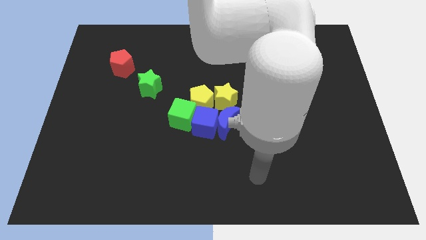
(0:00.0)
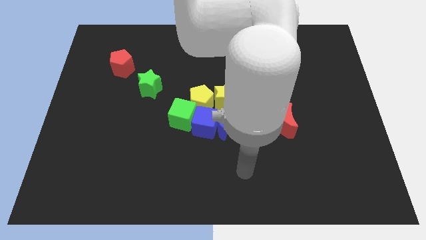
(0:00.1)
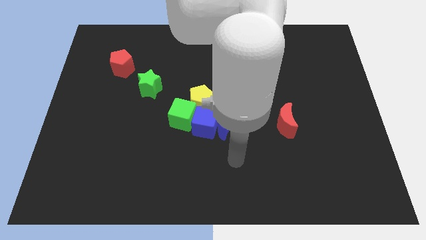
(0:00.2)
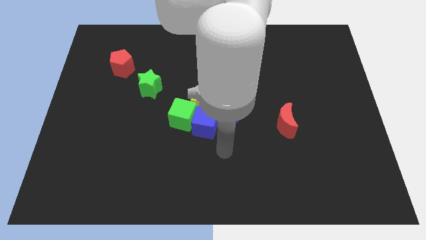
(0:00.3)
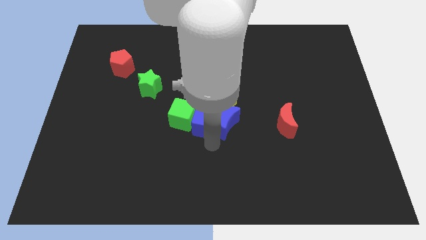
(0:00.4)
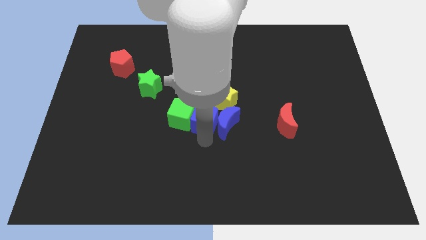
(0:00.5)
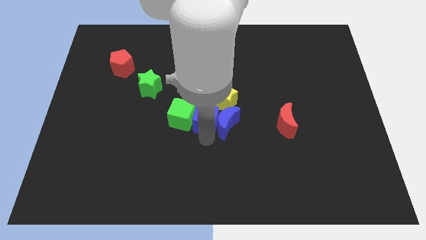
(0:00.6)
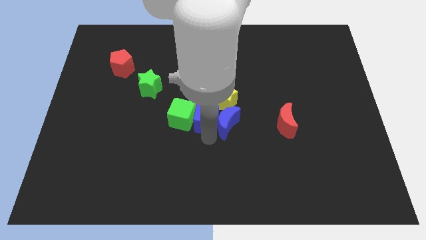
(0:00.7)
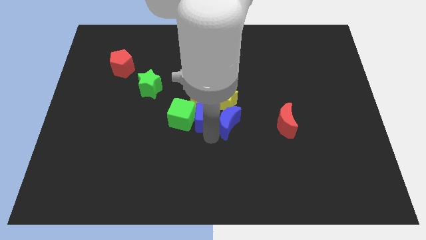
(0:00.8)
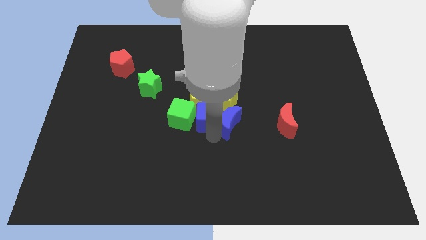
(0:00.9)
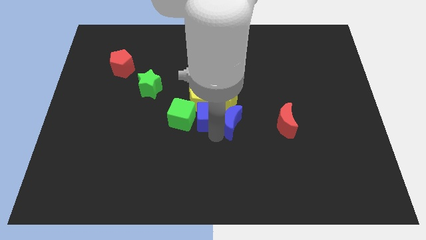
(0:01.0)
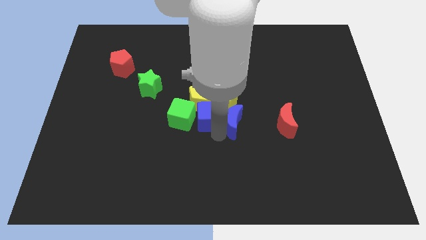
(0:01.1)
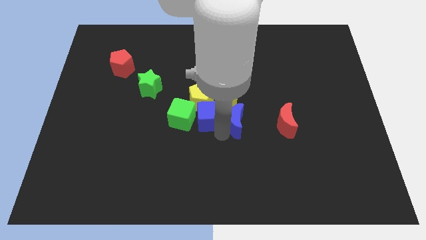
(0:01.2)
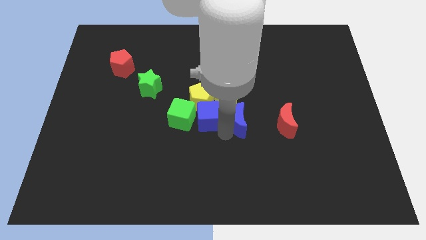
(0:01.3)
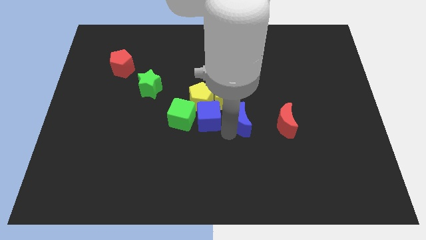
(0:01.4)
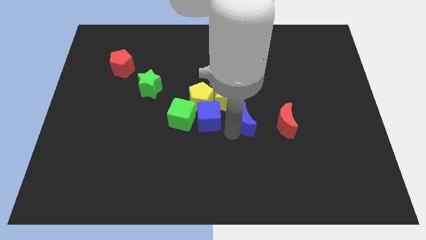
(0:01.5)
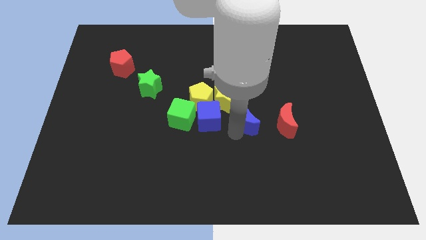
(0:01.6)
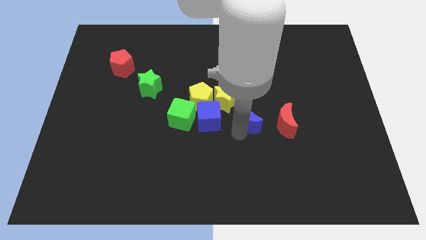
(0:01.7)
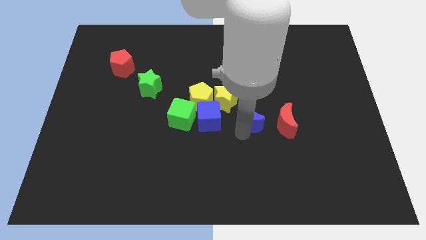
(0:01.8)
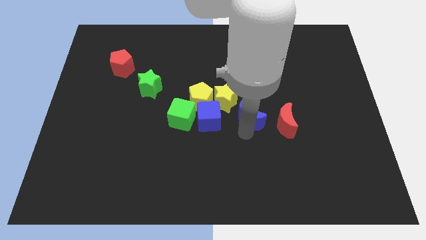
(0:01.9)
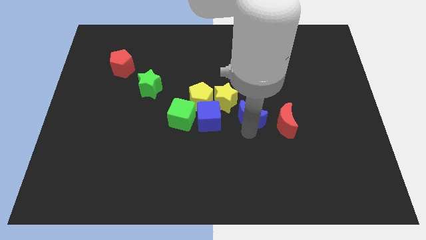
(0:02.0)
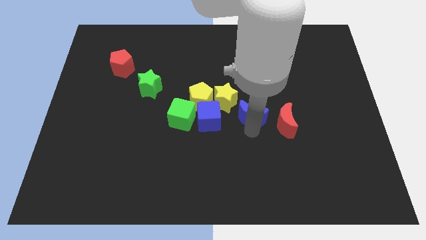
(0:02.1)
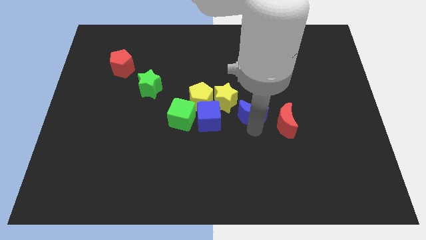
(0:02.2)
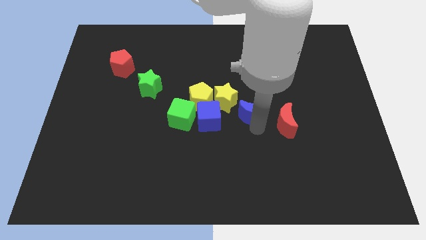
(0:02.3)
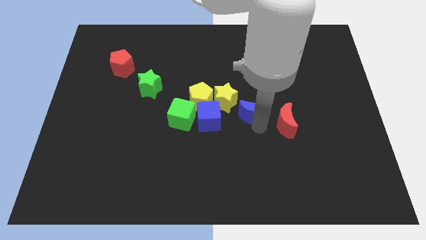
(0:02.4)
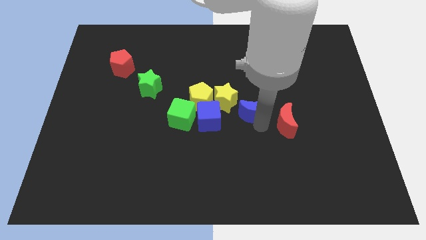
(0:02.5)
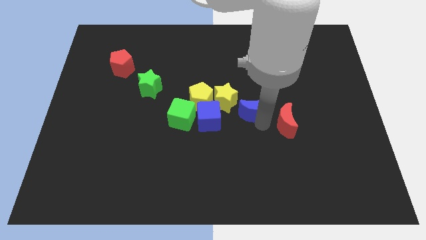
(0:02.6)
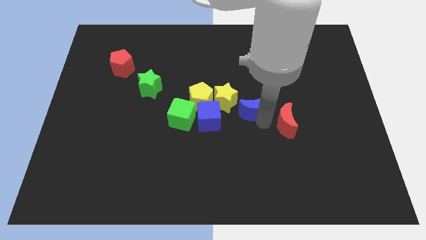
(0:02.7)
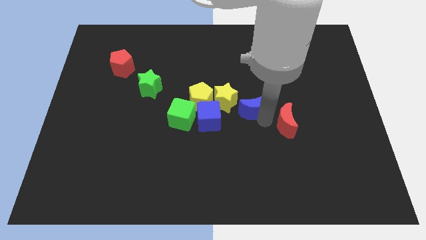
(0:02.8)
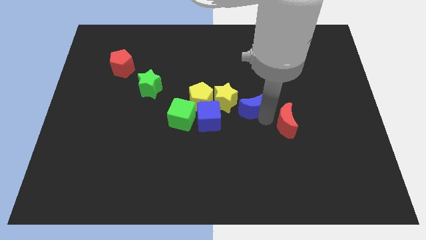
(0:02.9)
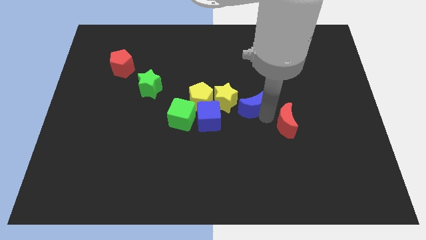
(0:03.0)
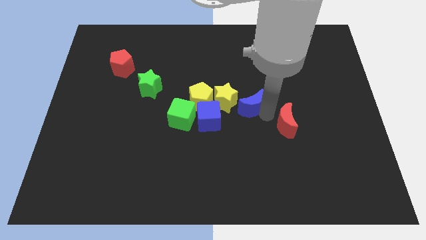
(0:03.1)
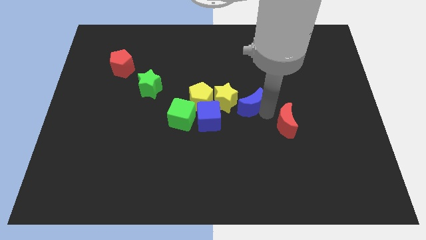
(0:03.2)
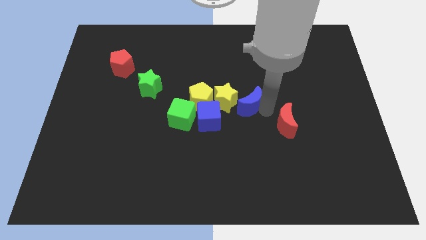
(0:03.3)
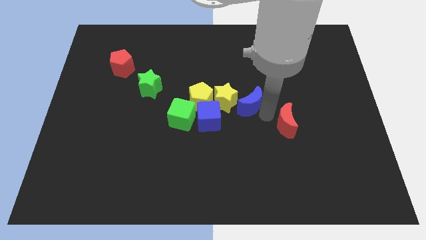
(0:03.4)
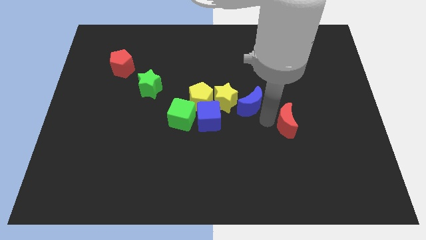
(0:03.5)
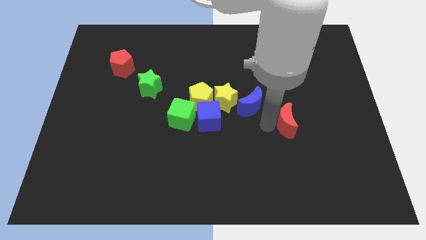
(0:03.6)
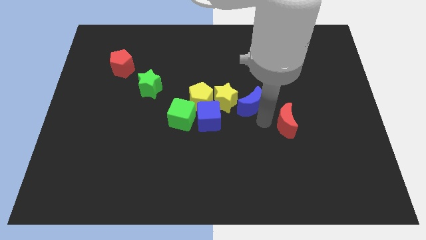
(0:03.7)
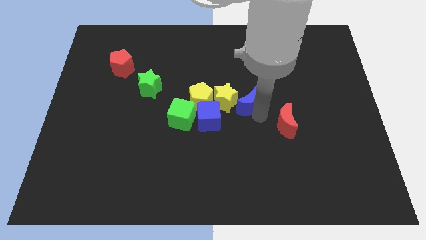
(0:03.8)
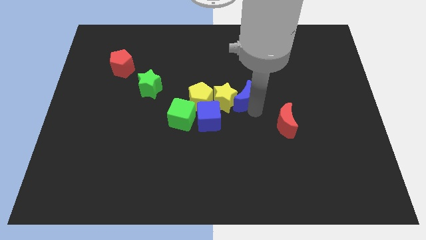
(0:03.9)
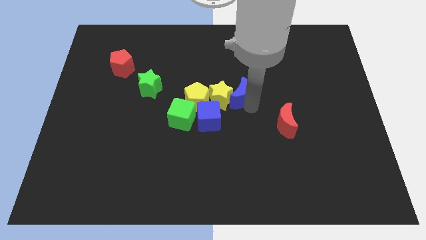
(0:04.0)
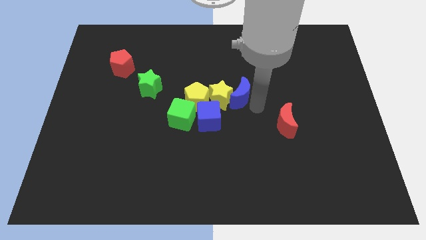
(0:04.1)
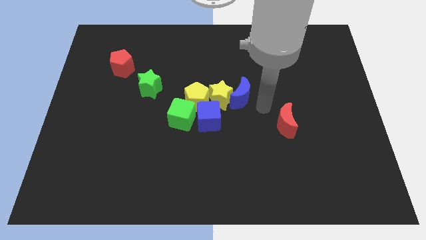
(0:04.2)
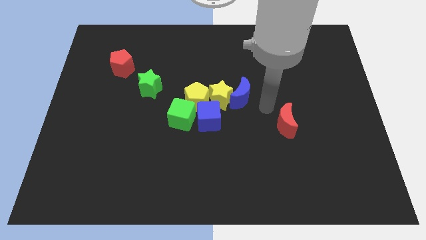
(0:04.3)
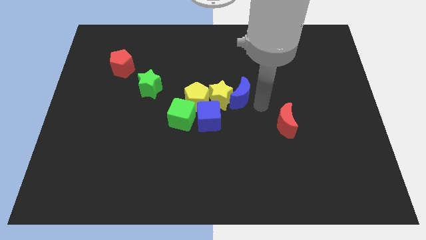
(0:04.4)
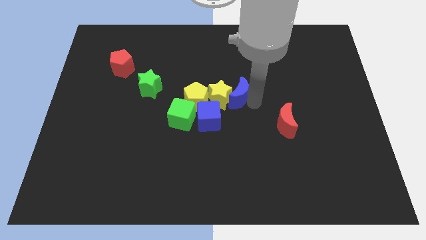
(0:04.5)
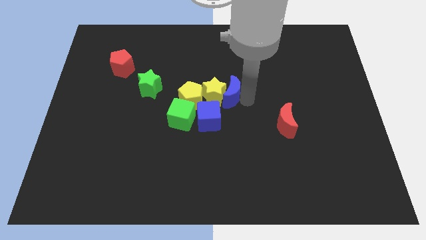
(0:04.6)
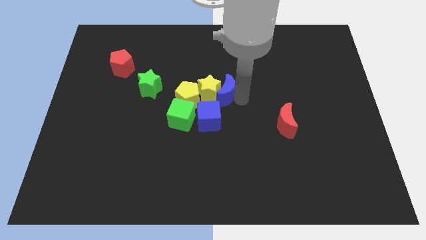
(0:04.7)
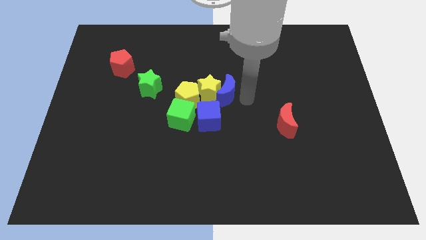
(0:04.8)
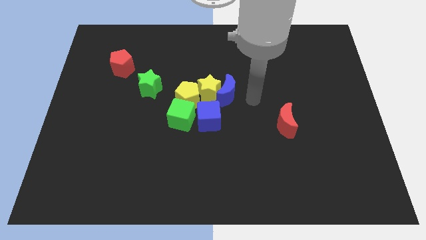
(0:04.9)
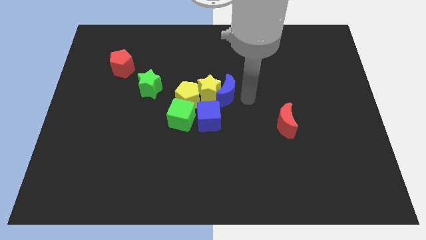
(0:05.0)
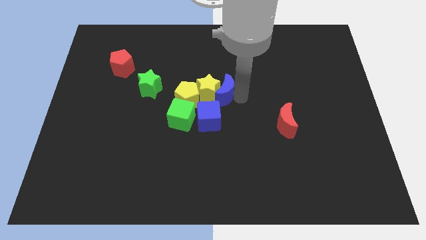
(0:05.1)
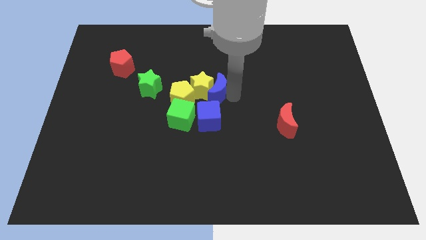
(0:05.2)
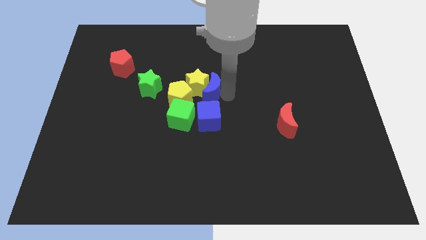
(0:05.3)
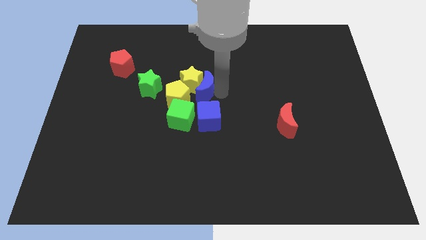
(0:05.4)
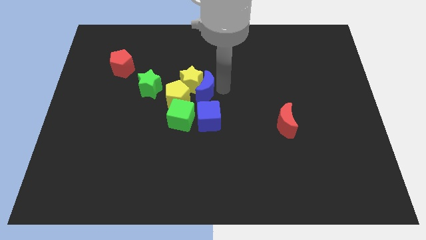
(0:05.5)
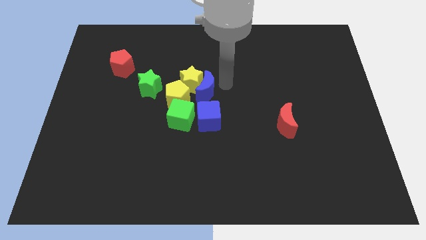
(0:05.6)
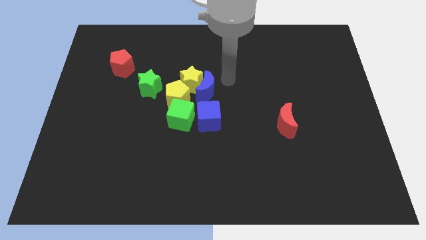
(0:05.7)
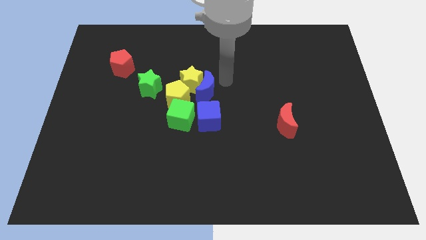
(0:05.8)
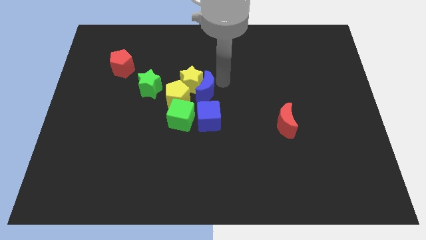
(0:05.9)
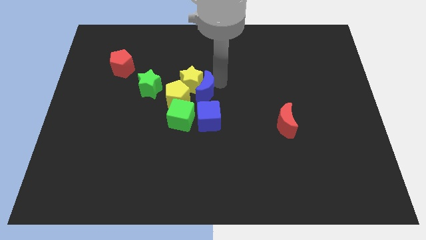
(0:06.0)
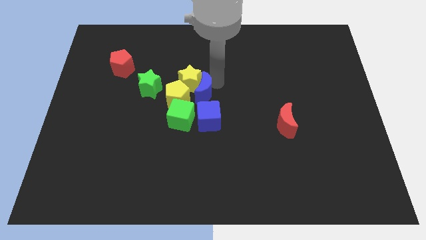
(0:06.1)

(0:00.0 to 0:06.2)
push the blue moon diagonally up and to the left of the blue cube

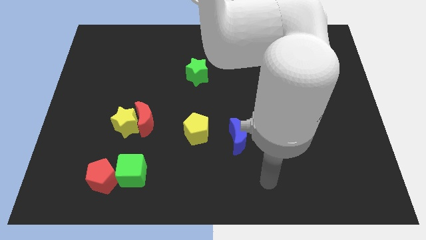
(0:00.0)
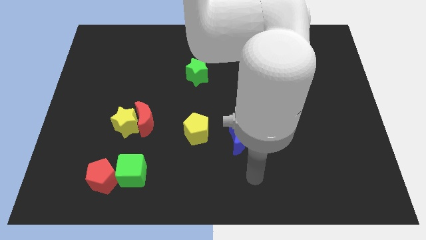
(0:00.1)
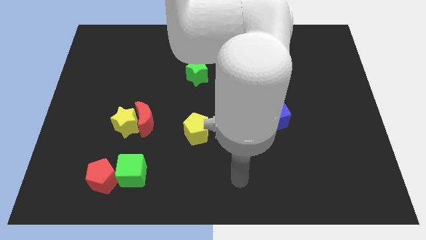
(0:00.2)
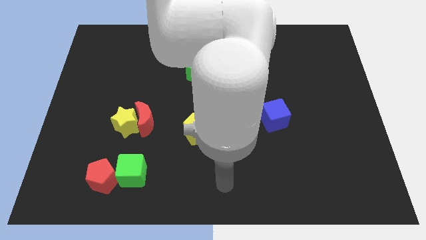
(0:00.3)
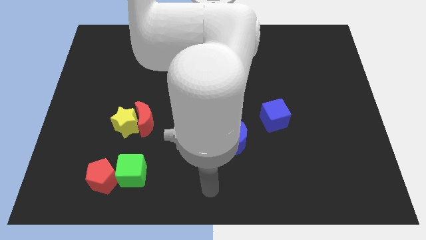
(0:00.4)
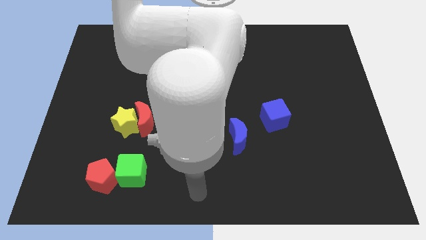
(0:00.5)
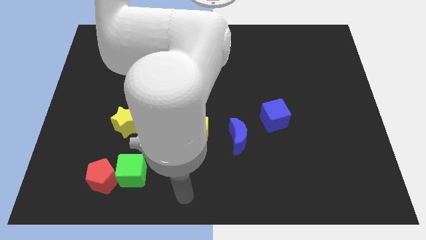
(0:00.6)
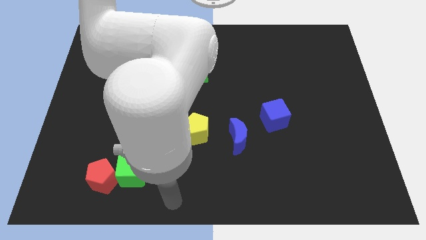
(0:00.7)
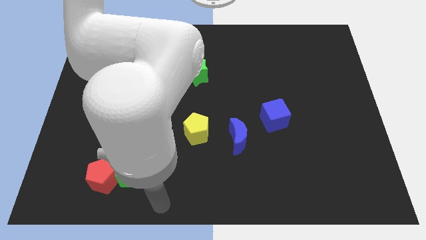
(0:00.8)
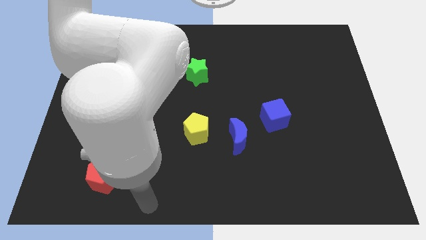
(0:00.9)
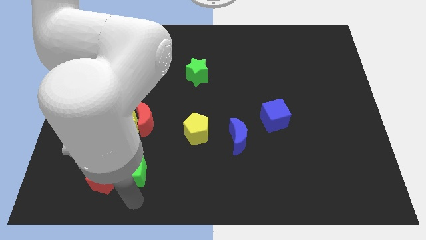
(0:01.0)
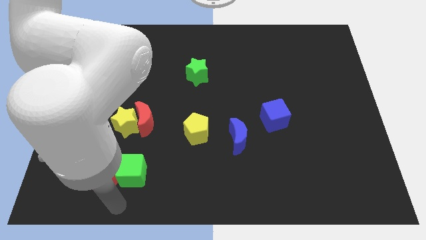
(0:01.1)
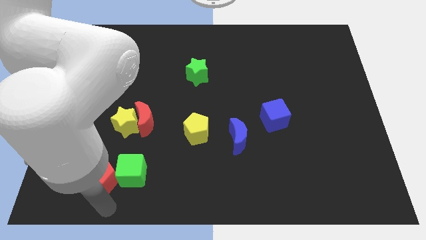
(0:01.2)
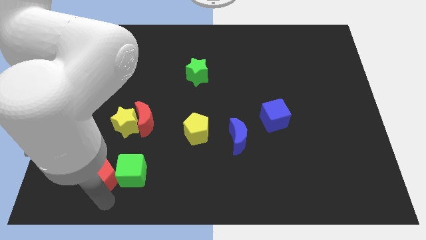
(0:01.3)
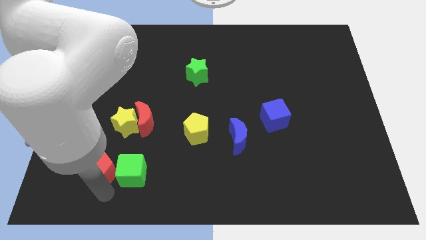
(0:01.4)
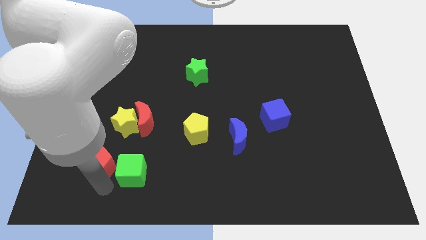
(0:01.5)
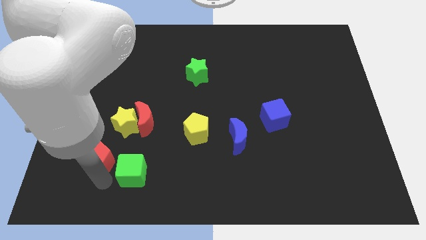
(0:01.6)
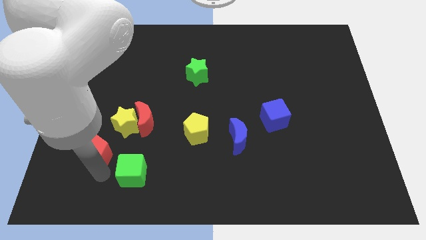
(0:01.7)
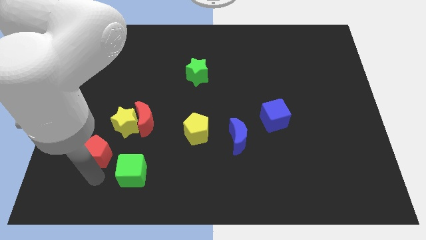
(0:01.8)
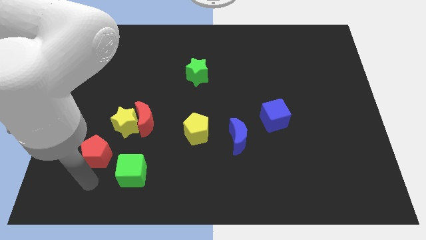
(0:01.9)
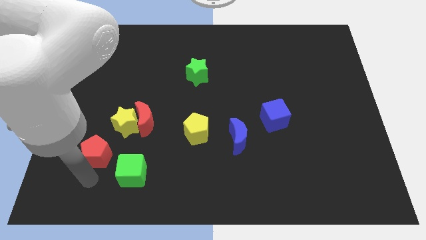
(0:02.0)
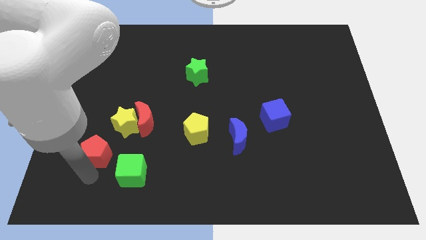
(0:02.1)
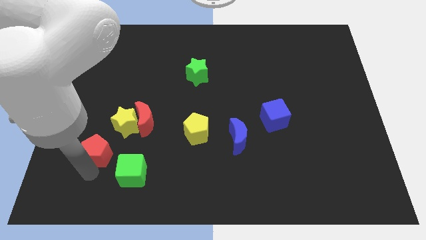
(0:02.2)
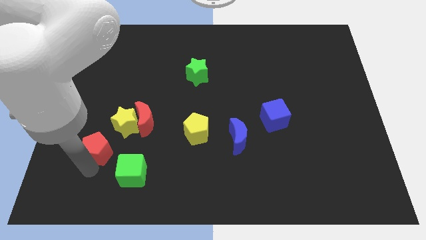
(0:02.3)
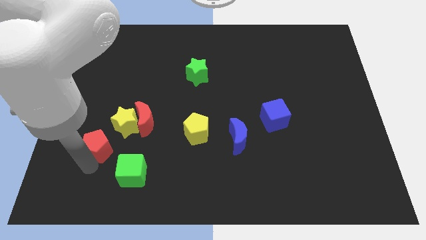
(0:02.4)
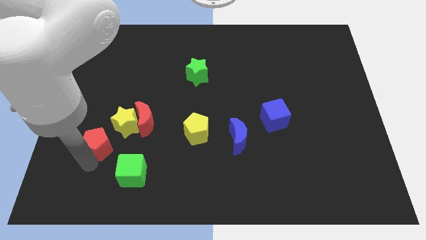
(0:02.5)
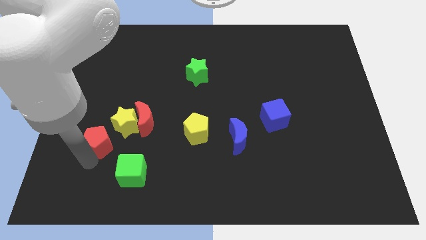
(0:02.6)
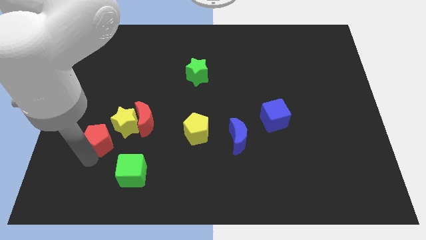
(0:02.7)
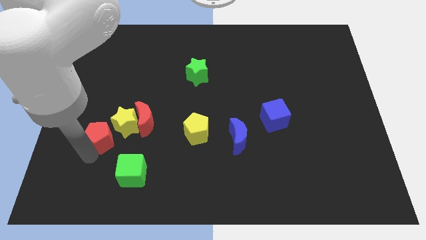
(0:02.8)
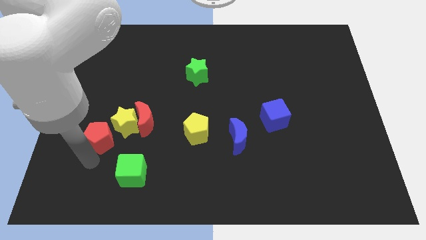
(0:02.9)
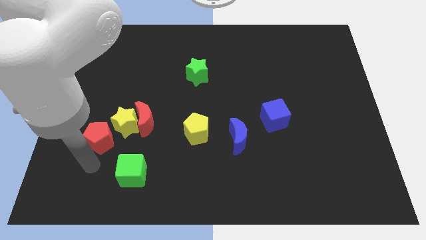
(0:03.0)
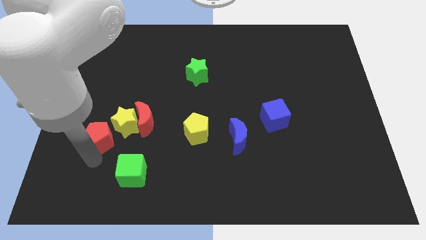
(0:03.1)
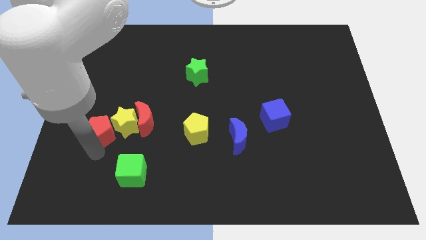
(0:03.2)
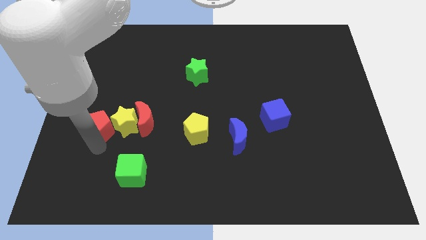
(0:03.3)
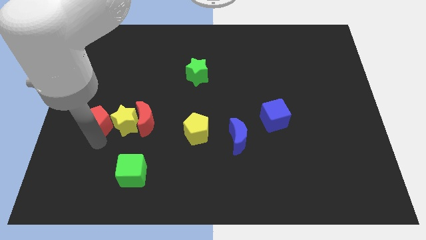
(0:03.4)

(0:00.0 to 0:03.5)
put the red pentagon to the top left of the yellow star
